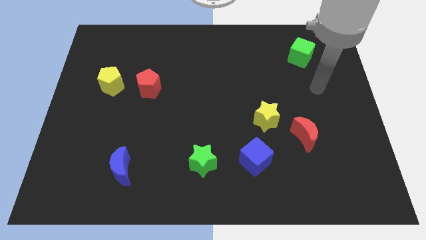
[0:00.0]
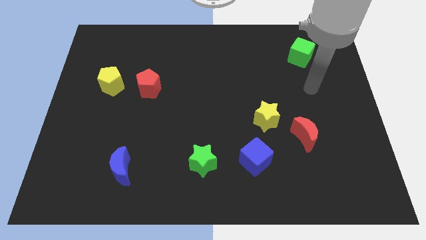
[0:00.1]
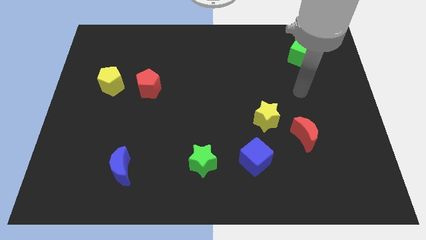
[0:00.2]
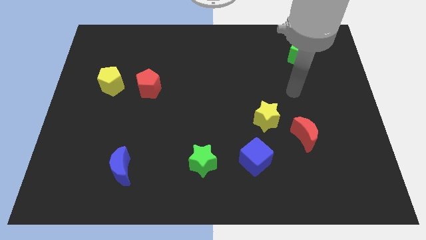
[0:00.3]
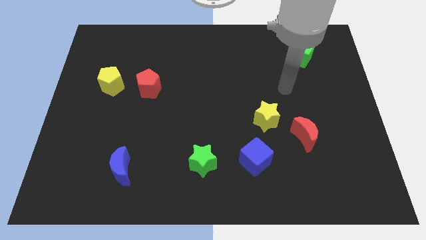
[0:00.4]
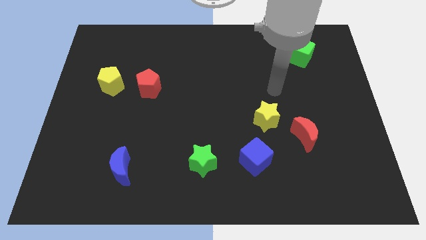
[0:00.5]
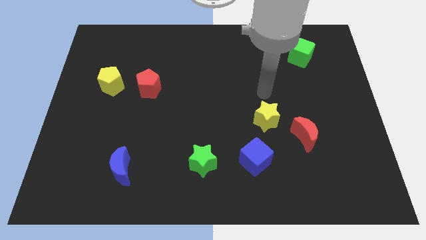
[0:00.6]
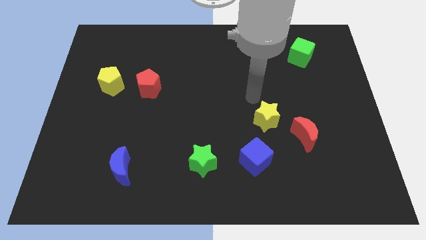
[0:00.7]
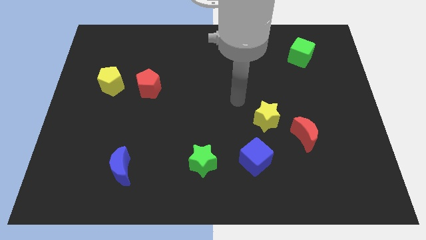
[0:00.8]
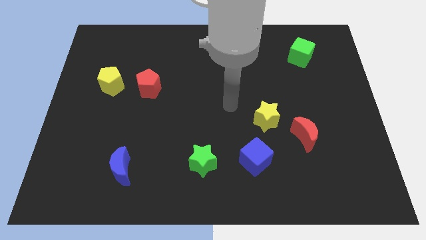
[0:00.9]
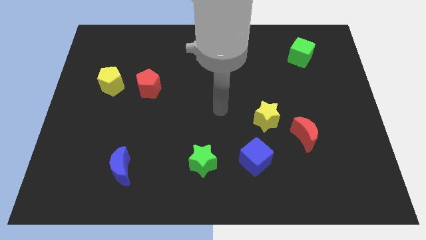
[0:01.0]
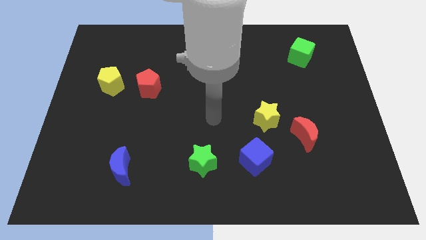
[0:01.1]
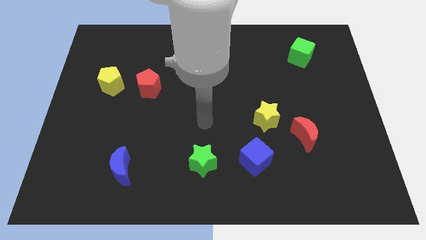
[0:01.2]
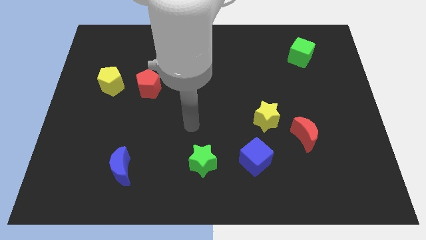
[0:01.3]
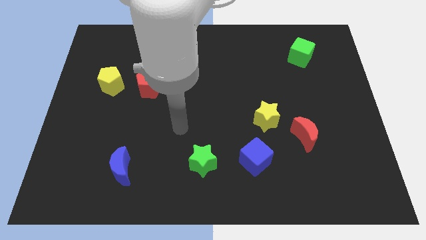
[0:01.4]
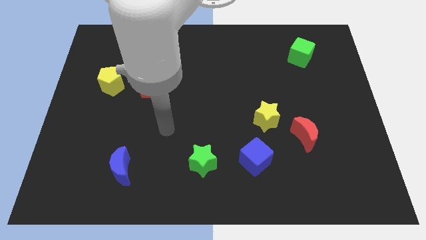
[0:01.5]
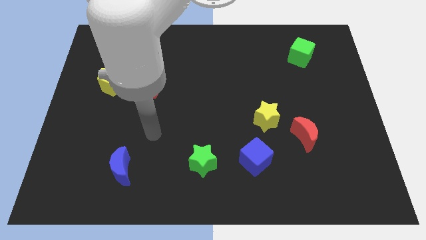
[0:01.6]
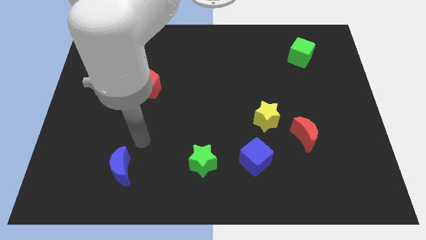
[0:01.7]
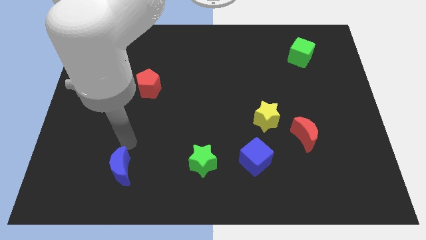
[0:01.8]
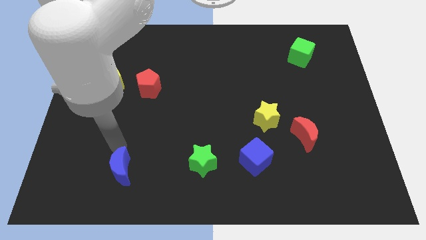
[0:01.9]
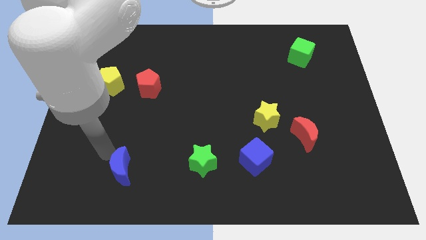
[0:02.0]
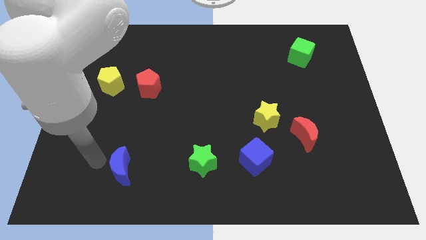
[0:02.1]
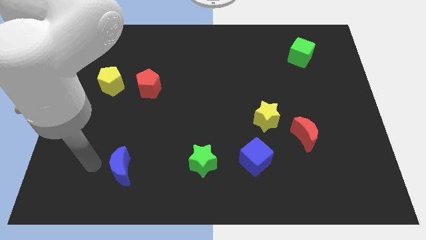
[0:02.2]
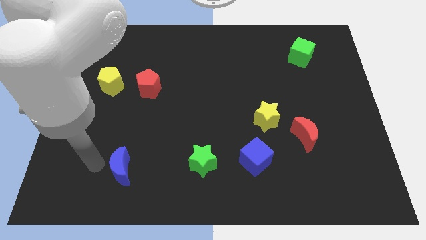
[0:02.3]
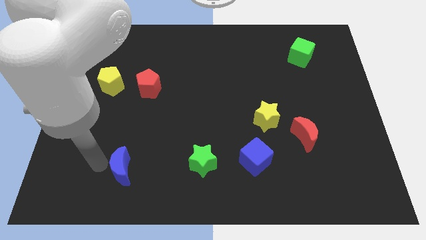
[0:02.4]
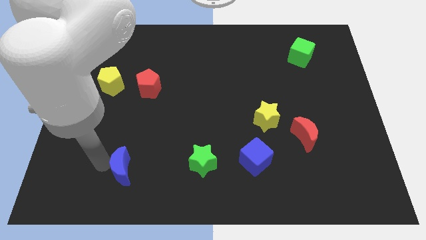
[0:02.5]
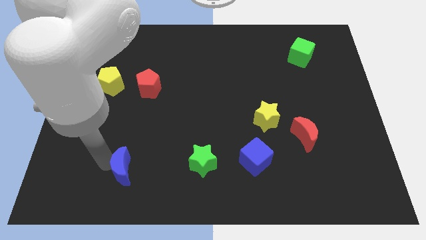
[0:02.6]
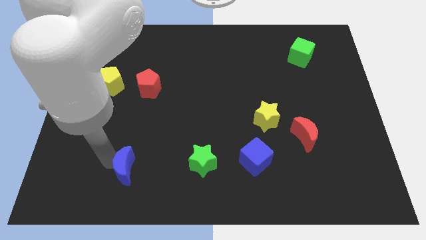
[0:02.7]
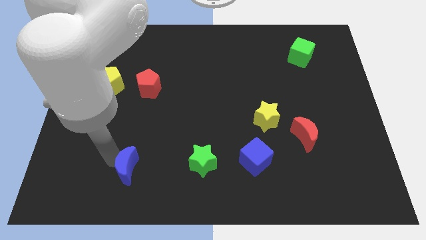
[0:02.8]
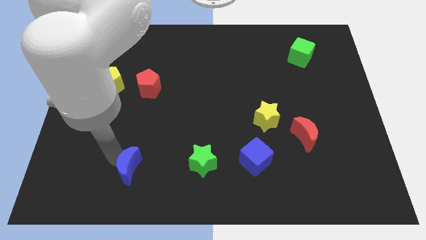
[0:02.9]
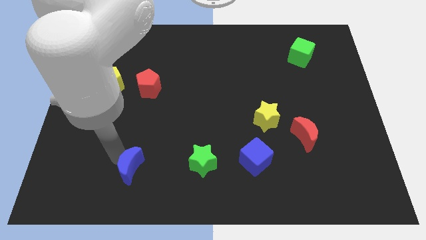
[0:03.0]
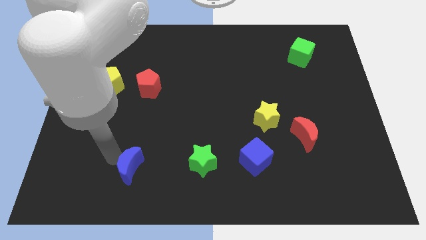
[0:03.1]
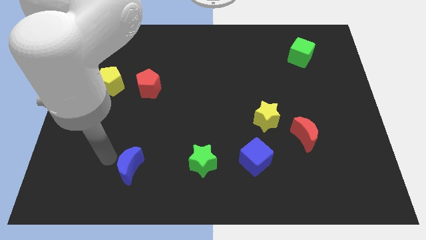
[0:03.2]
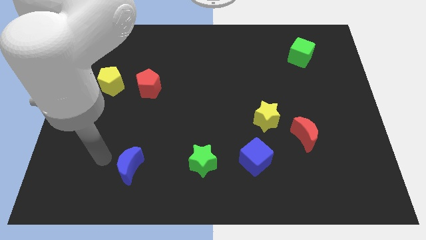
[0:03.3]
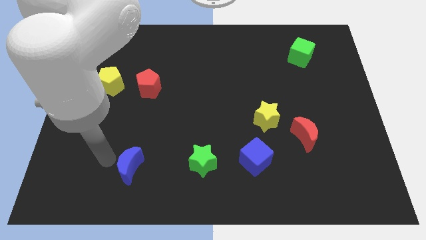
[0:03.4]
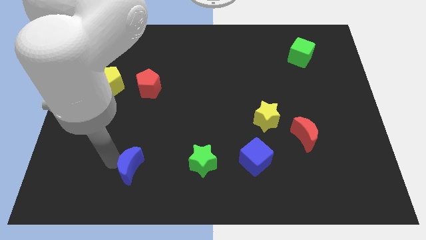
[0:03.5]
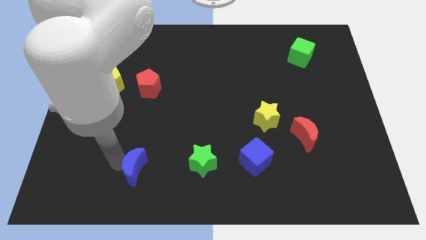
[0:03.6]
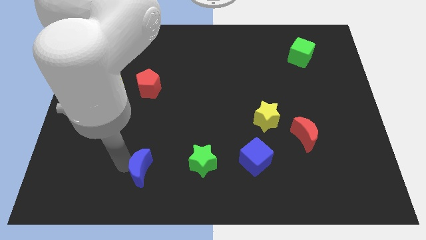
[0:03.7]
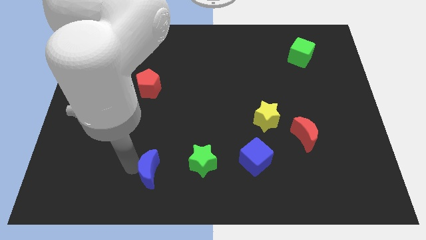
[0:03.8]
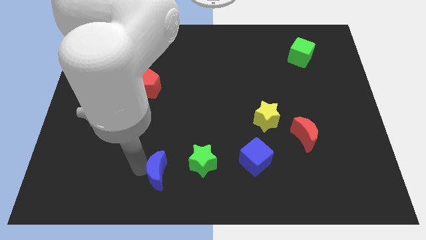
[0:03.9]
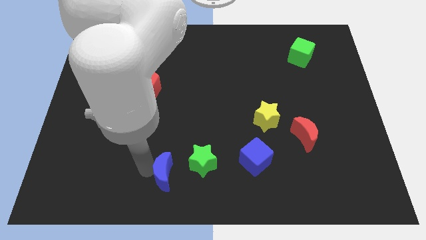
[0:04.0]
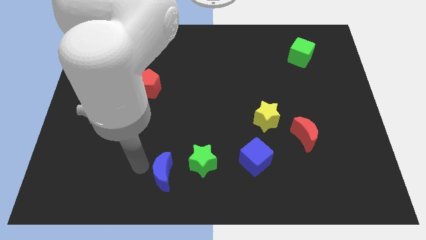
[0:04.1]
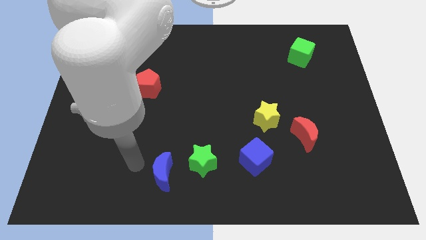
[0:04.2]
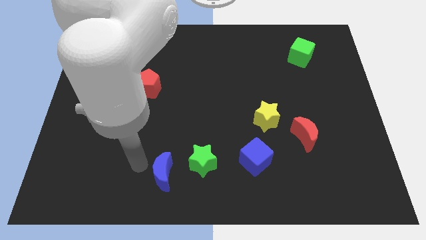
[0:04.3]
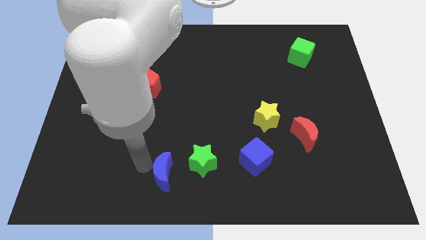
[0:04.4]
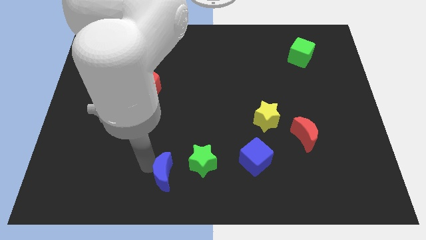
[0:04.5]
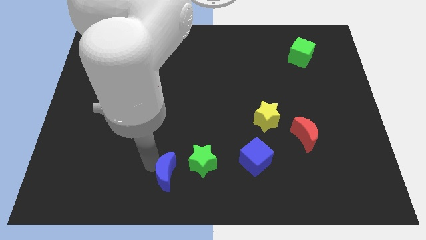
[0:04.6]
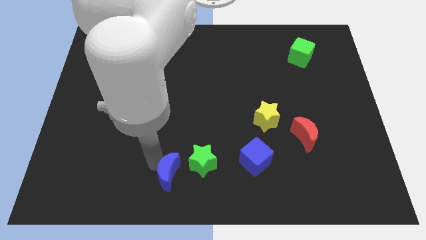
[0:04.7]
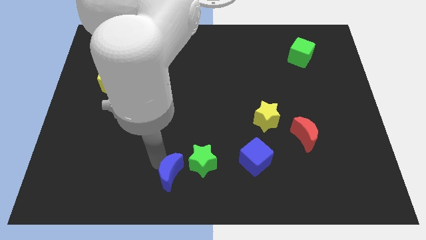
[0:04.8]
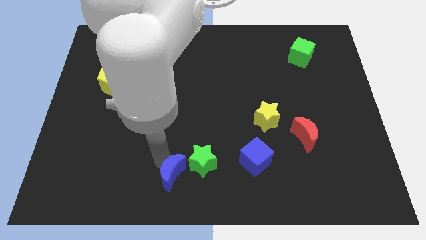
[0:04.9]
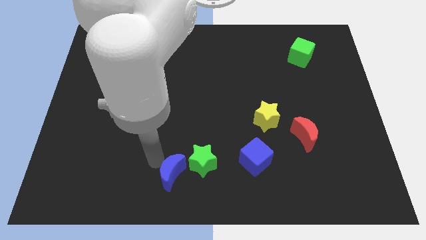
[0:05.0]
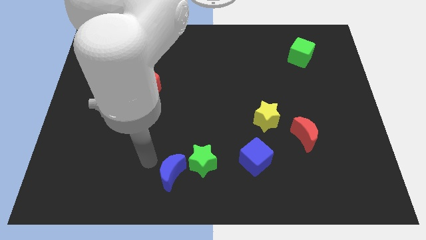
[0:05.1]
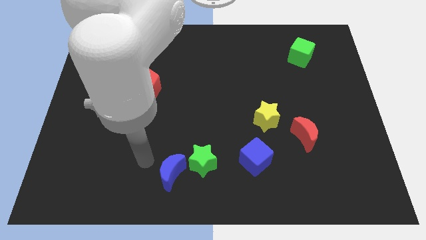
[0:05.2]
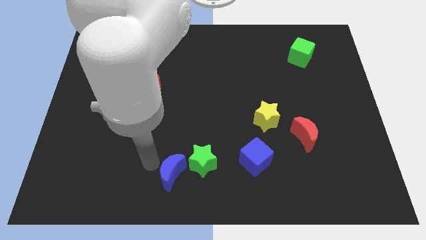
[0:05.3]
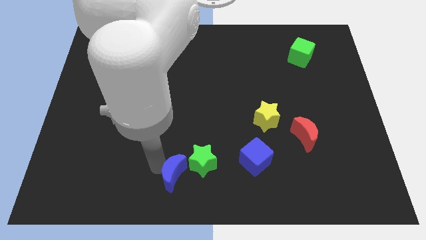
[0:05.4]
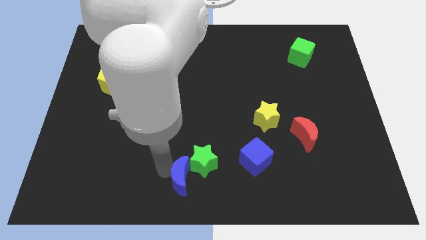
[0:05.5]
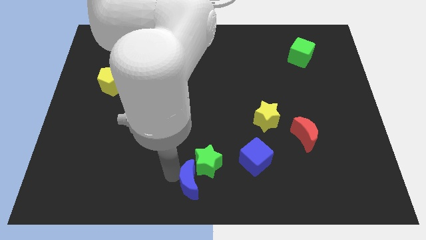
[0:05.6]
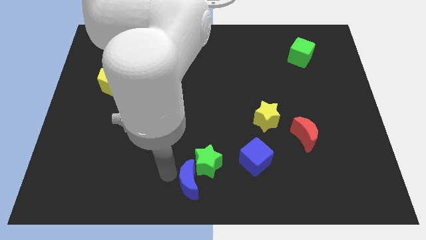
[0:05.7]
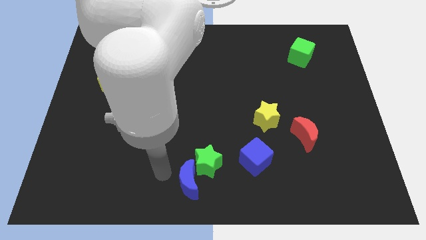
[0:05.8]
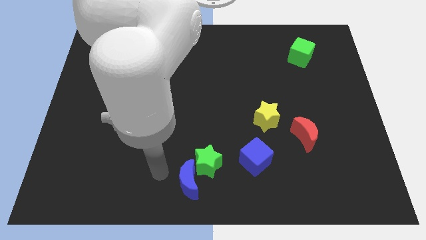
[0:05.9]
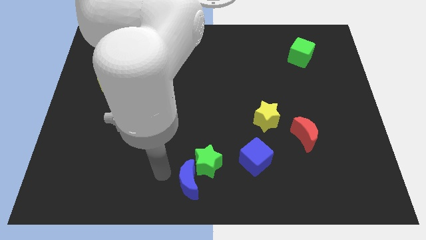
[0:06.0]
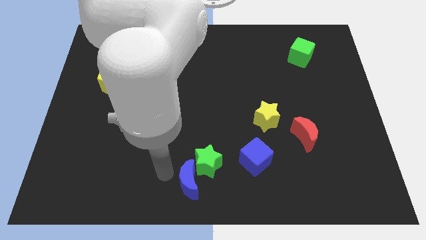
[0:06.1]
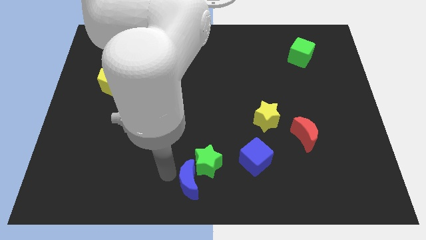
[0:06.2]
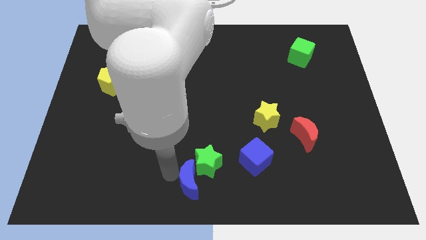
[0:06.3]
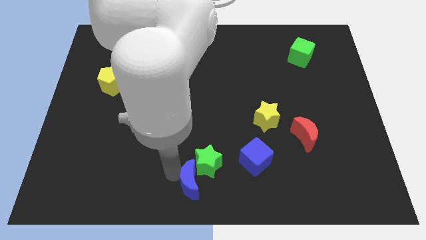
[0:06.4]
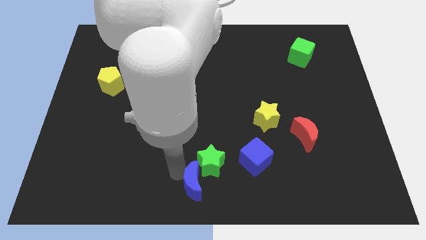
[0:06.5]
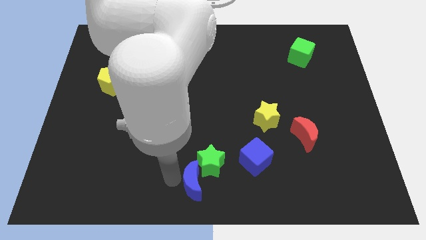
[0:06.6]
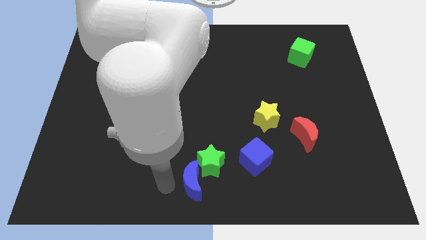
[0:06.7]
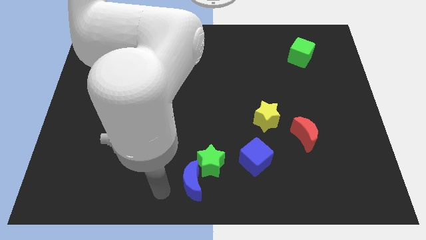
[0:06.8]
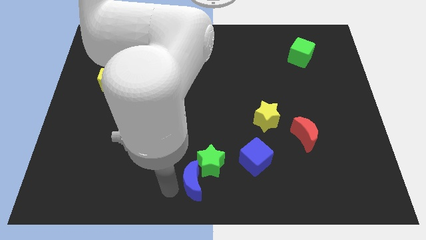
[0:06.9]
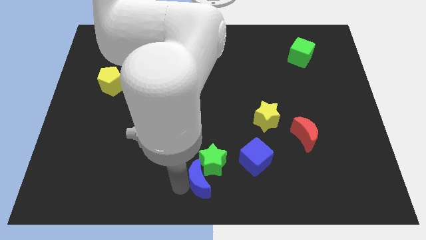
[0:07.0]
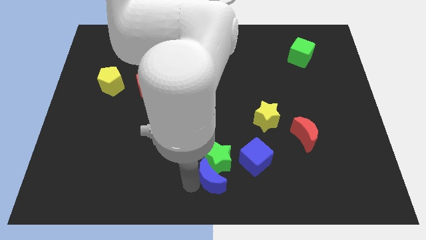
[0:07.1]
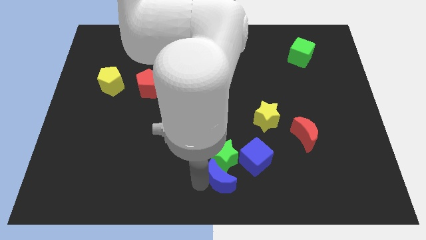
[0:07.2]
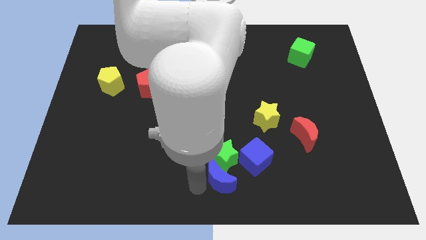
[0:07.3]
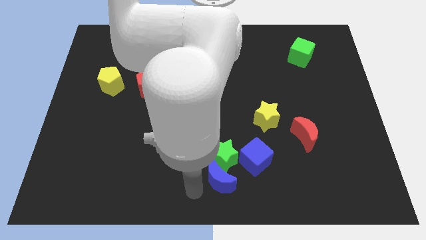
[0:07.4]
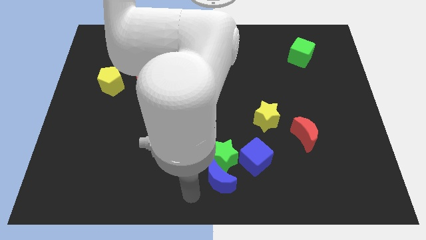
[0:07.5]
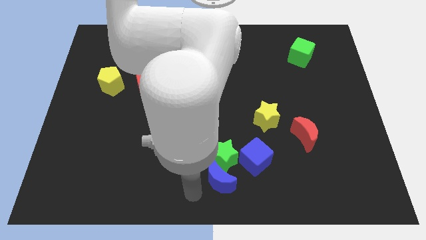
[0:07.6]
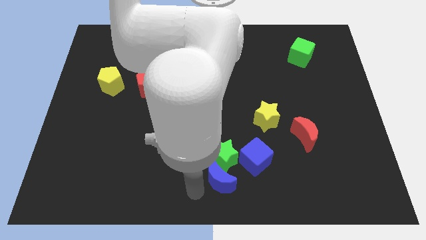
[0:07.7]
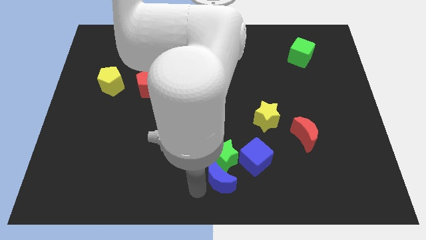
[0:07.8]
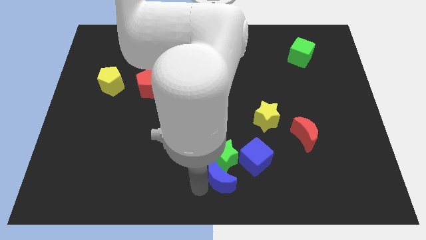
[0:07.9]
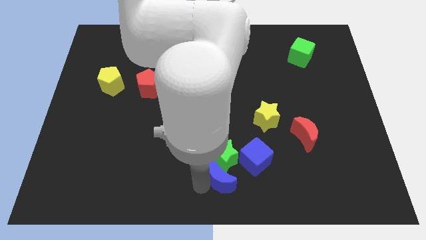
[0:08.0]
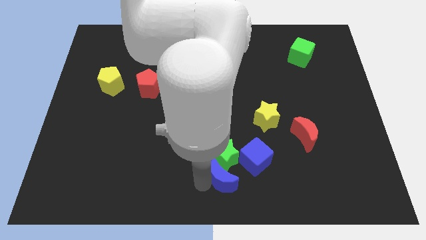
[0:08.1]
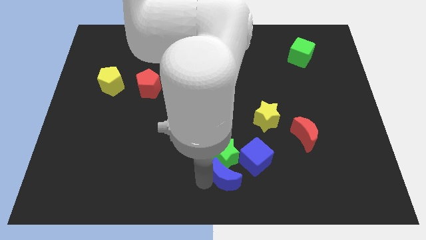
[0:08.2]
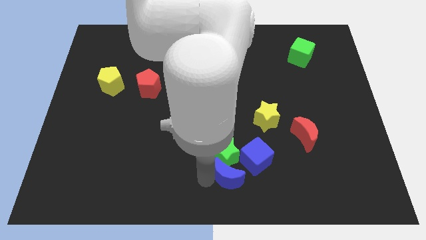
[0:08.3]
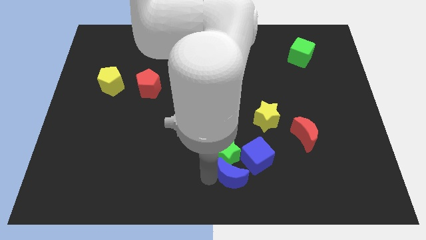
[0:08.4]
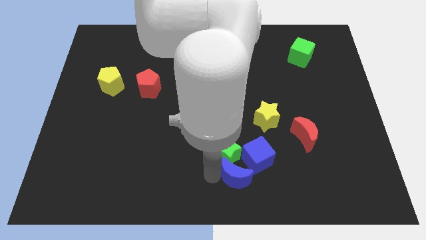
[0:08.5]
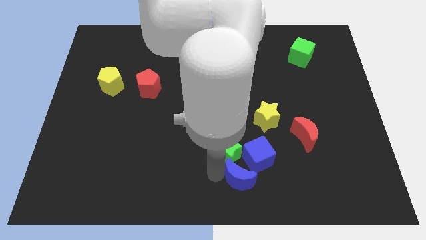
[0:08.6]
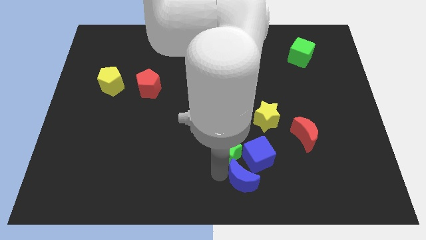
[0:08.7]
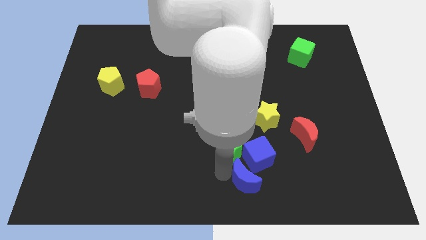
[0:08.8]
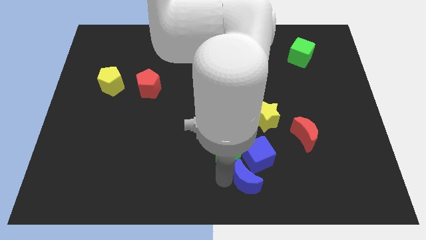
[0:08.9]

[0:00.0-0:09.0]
push the blue moon close to the blue cube
